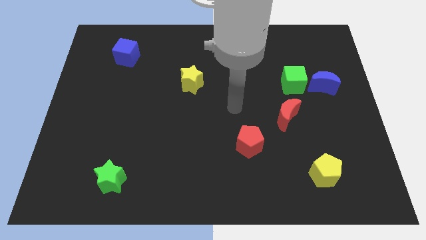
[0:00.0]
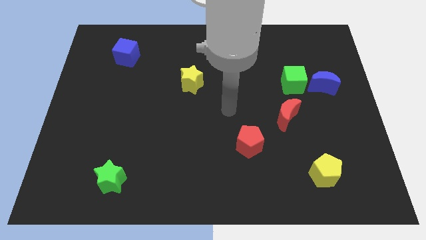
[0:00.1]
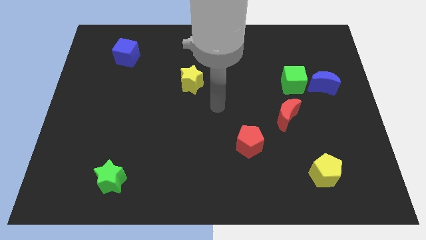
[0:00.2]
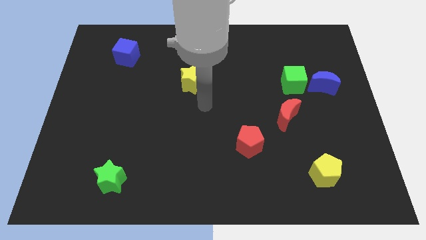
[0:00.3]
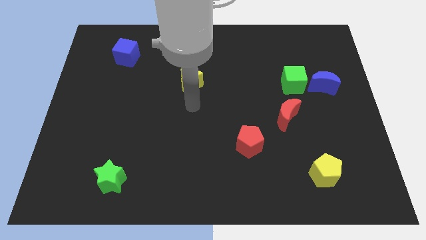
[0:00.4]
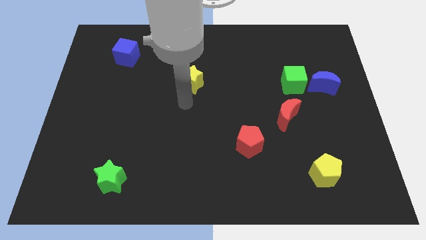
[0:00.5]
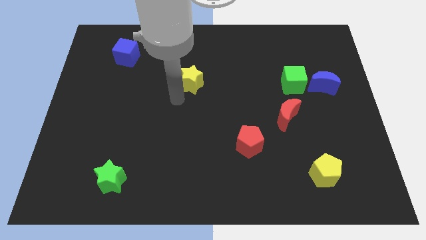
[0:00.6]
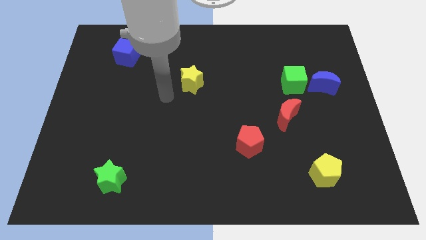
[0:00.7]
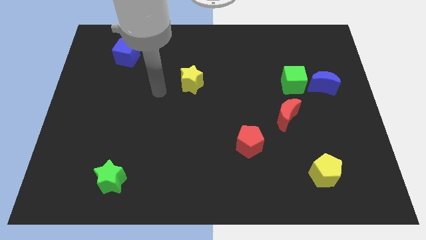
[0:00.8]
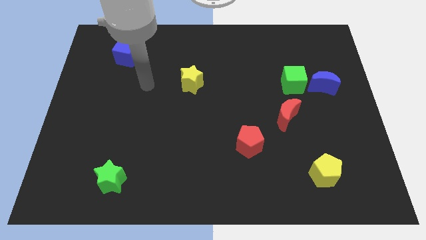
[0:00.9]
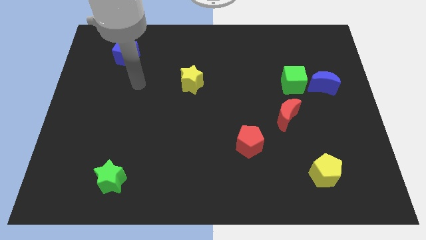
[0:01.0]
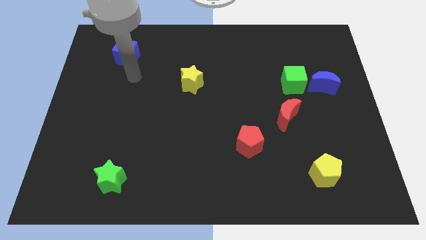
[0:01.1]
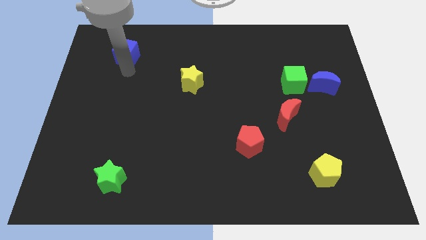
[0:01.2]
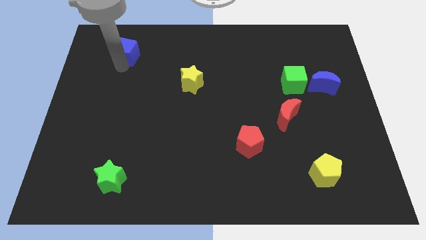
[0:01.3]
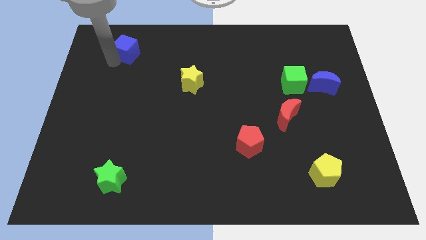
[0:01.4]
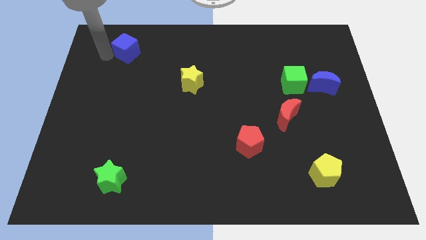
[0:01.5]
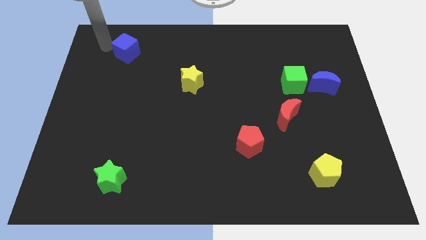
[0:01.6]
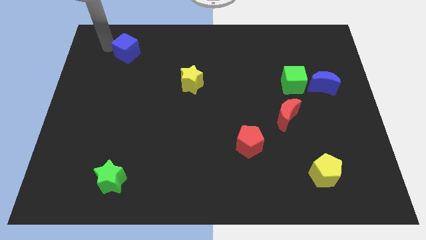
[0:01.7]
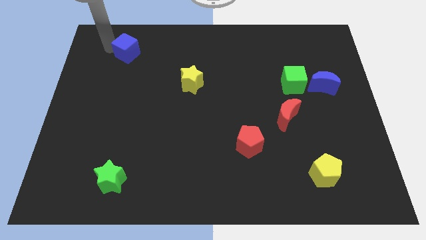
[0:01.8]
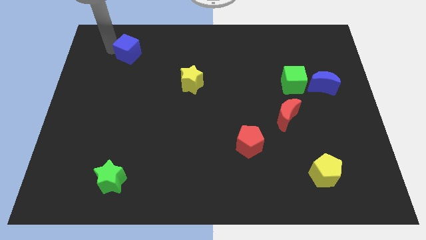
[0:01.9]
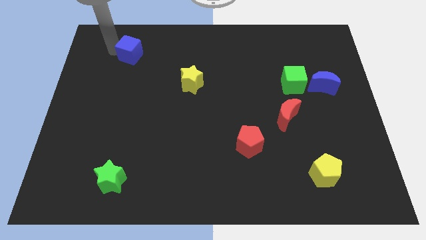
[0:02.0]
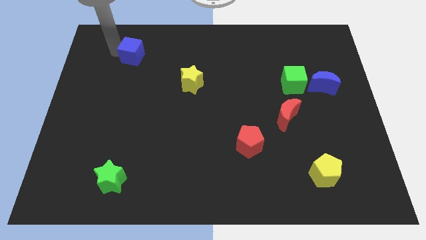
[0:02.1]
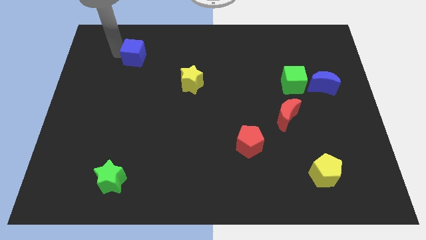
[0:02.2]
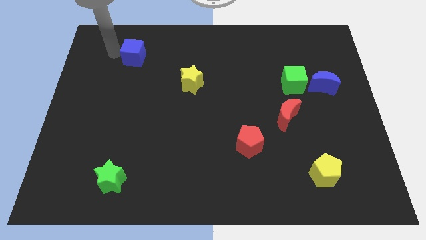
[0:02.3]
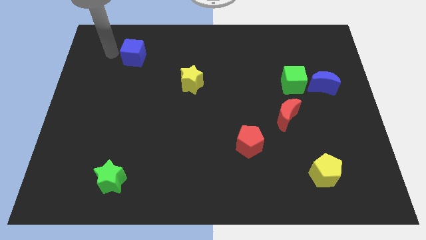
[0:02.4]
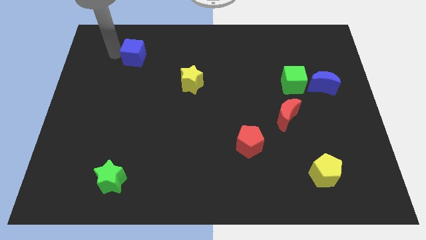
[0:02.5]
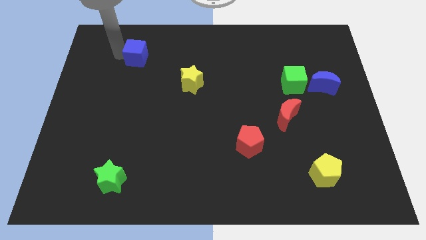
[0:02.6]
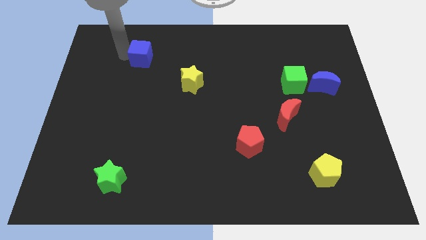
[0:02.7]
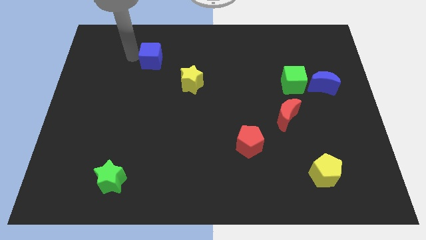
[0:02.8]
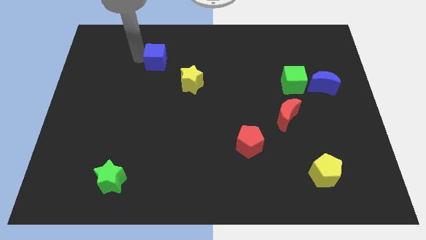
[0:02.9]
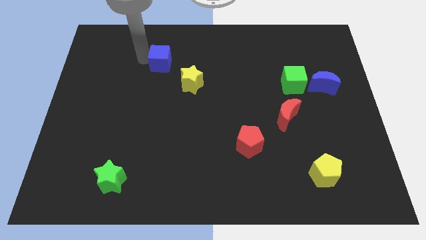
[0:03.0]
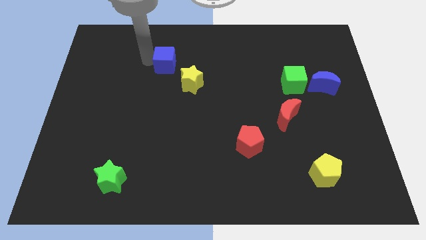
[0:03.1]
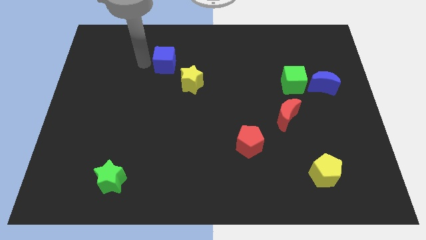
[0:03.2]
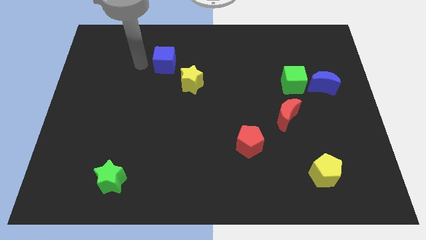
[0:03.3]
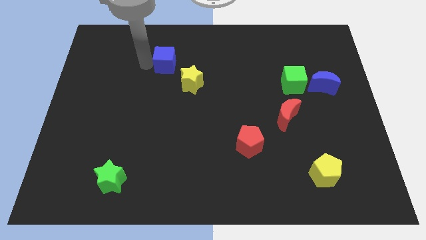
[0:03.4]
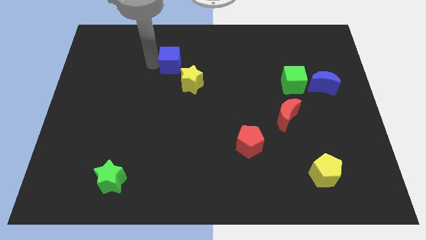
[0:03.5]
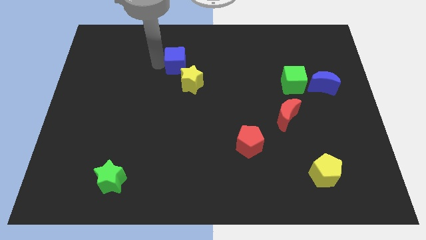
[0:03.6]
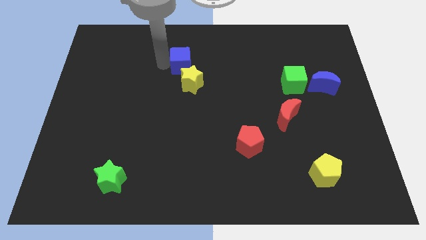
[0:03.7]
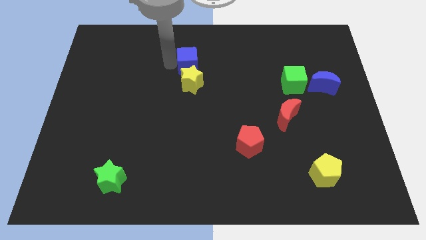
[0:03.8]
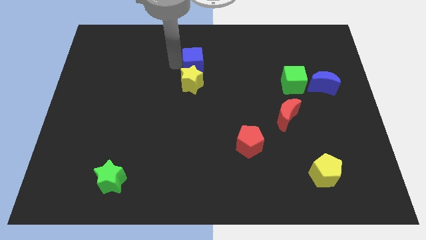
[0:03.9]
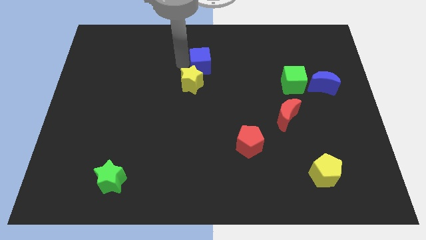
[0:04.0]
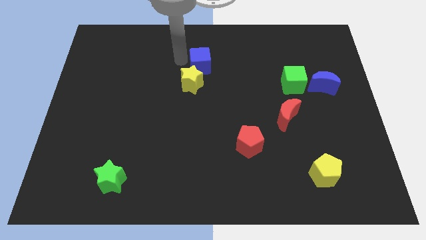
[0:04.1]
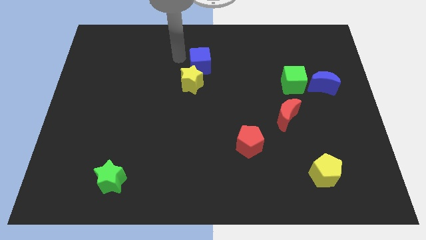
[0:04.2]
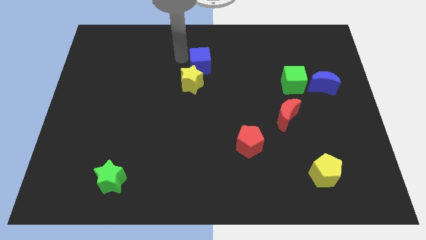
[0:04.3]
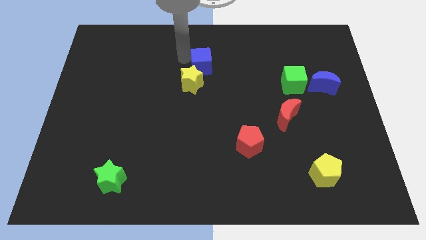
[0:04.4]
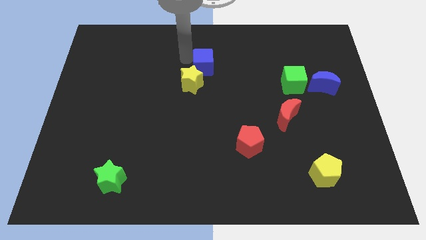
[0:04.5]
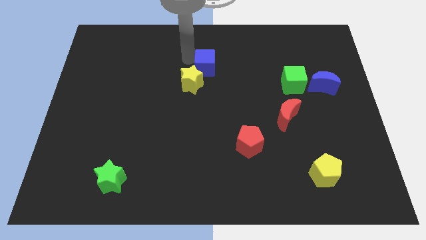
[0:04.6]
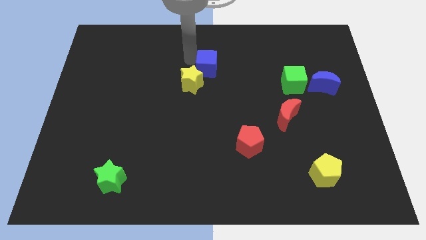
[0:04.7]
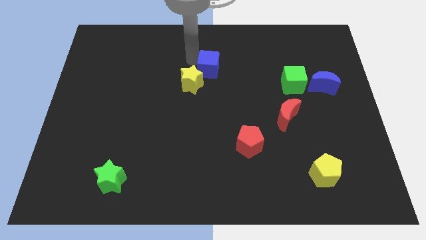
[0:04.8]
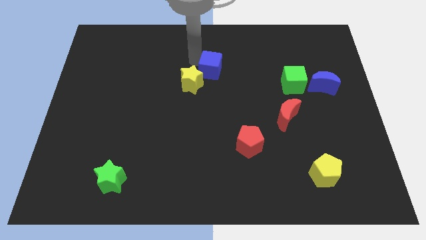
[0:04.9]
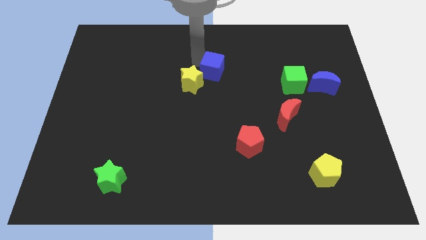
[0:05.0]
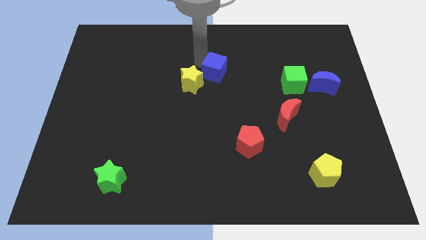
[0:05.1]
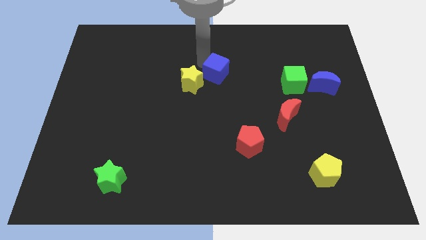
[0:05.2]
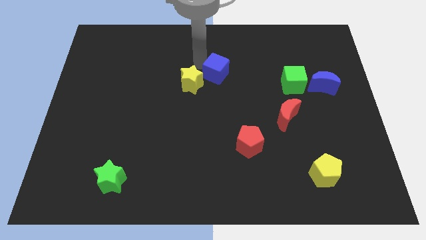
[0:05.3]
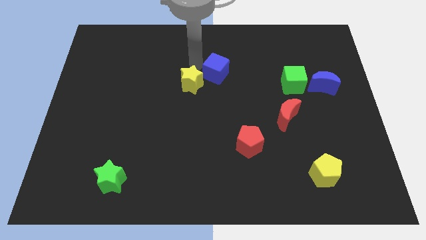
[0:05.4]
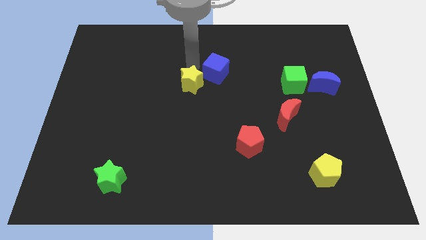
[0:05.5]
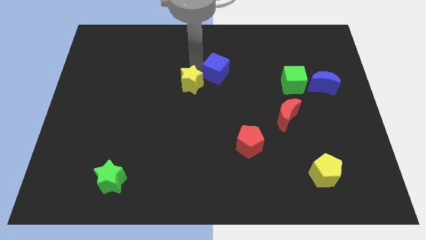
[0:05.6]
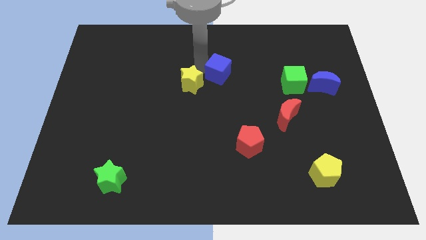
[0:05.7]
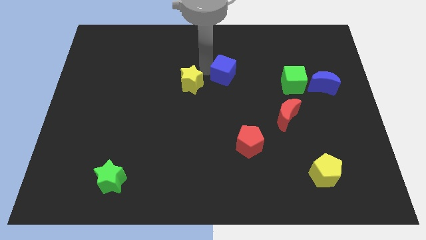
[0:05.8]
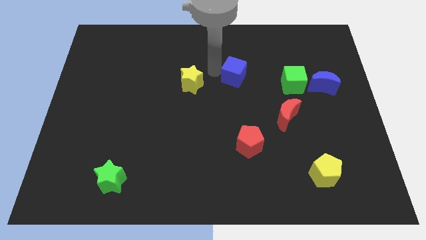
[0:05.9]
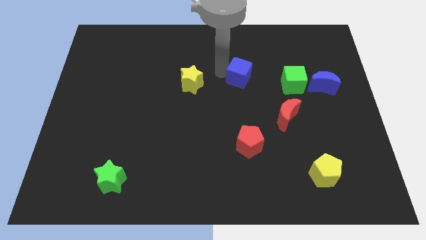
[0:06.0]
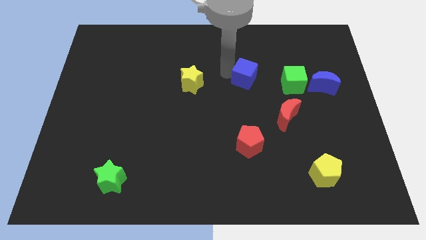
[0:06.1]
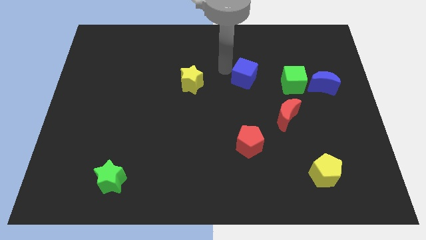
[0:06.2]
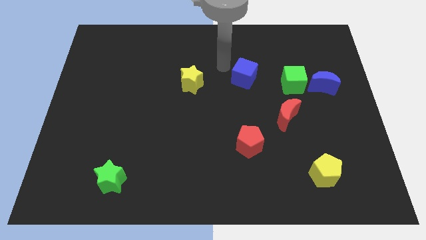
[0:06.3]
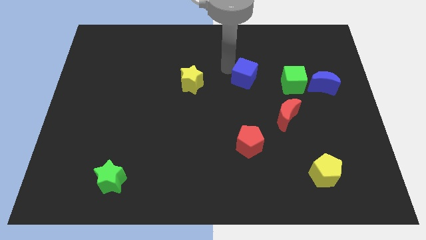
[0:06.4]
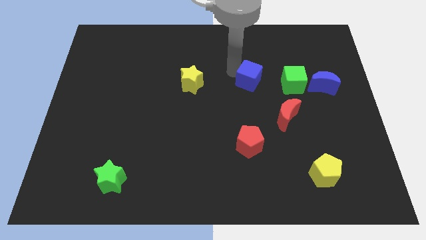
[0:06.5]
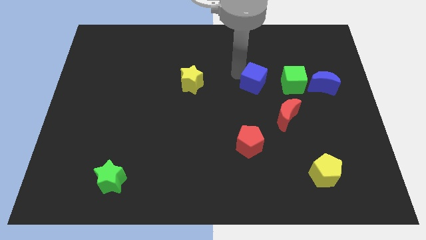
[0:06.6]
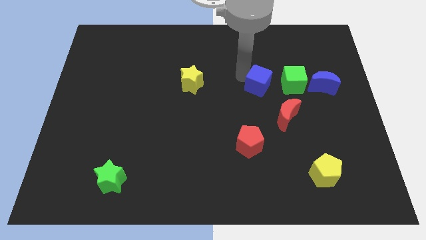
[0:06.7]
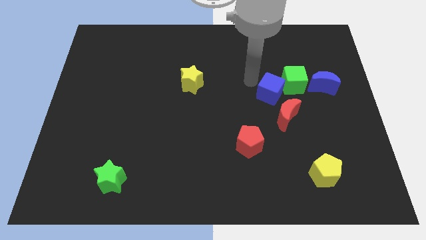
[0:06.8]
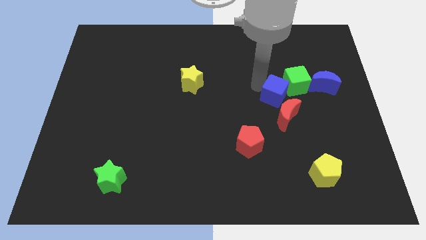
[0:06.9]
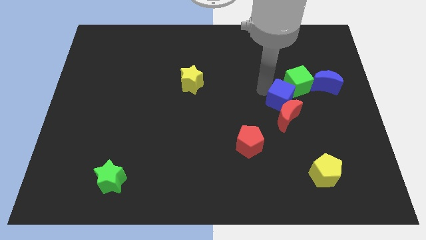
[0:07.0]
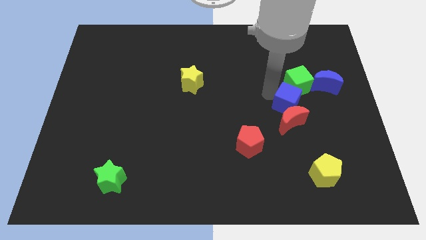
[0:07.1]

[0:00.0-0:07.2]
slide the blue cube to the bottom left of the blue moon
